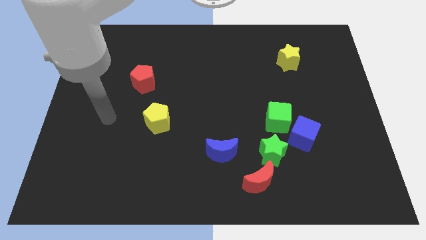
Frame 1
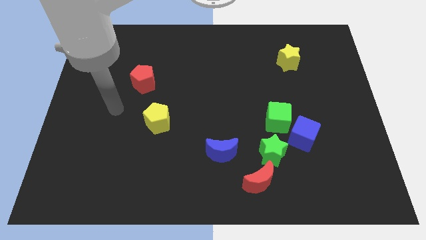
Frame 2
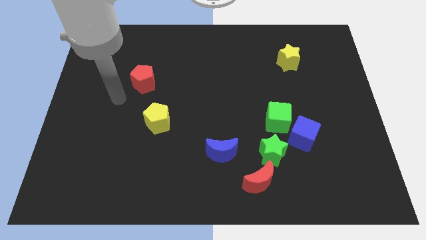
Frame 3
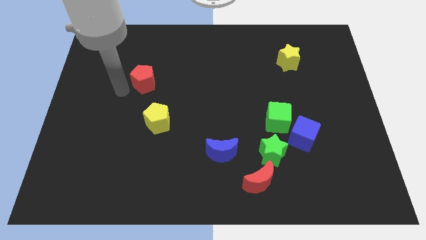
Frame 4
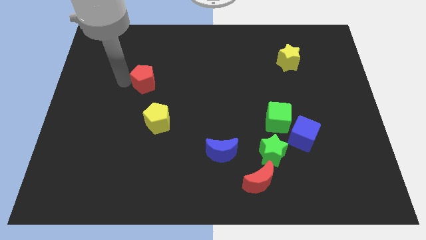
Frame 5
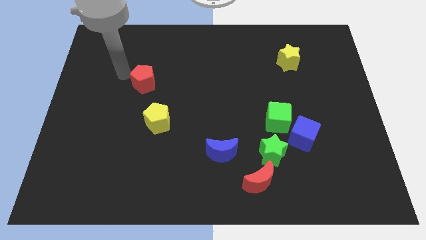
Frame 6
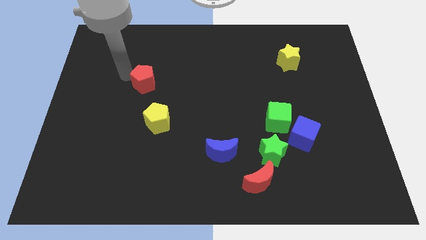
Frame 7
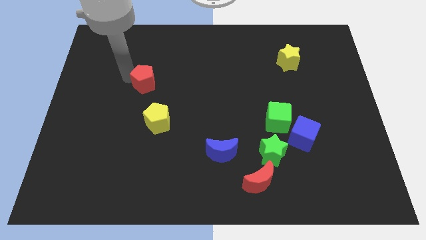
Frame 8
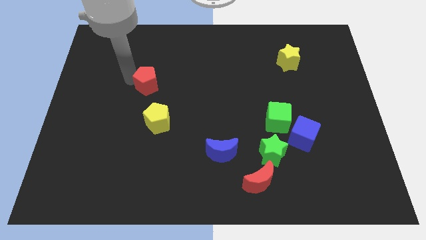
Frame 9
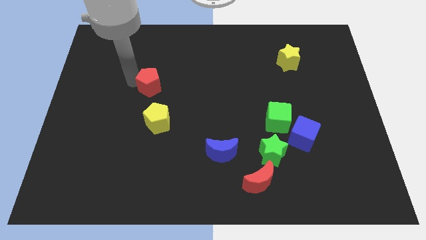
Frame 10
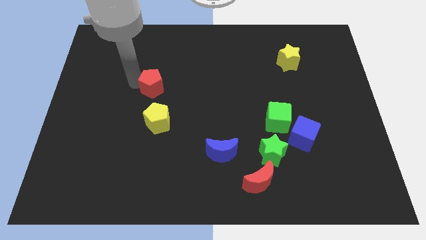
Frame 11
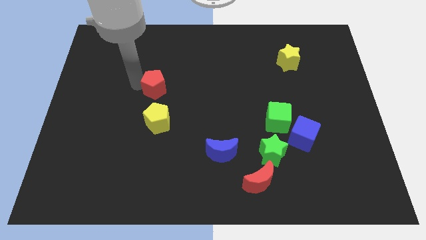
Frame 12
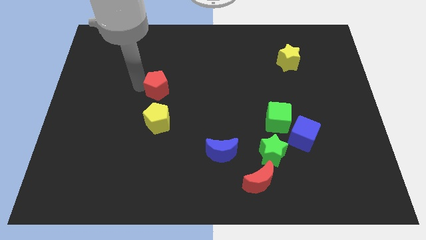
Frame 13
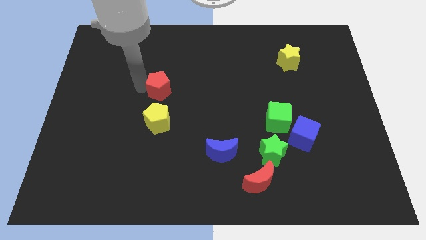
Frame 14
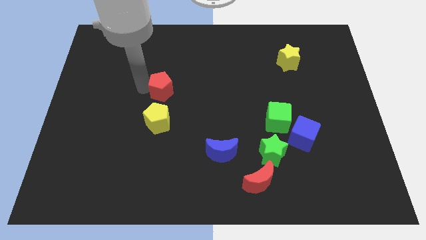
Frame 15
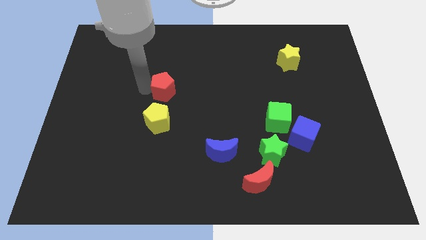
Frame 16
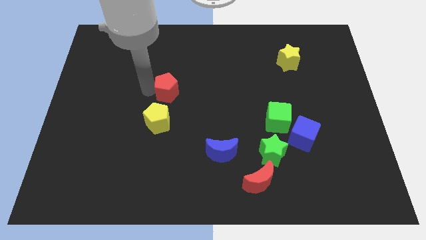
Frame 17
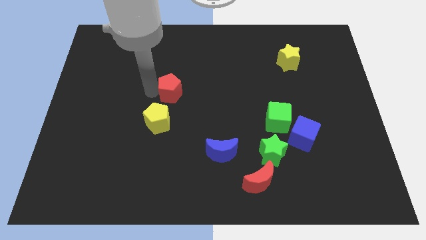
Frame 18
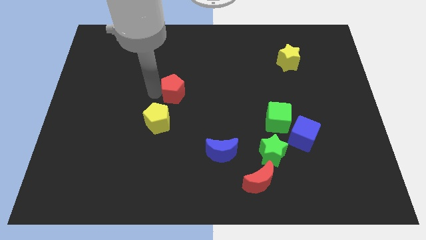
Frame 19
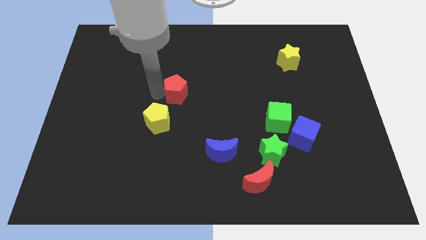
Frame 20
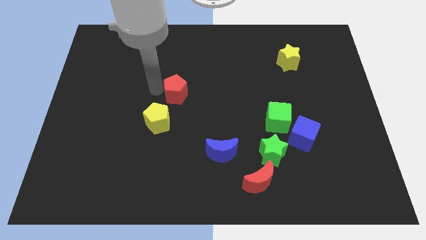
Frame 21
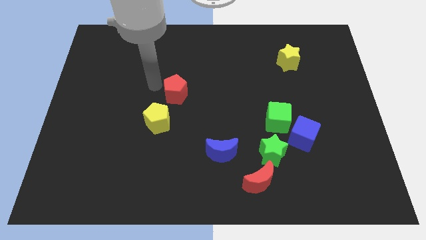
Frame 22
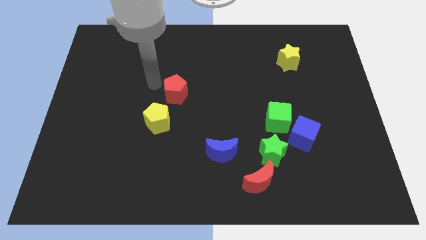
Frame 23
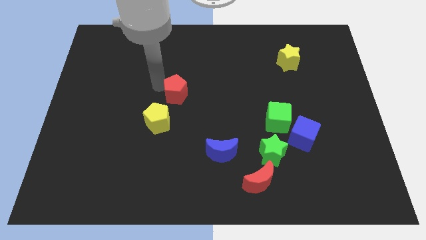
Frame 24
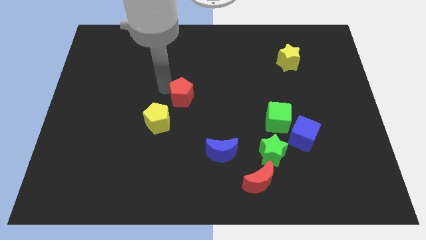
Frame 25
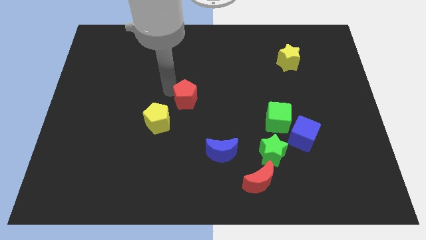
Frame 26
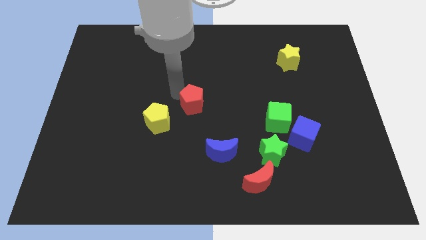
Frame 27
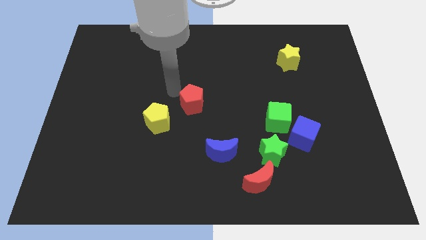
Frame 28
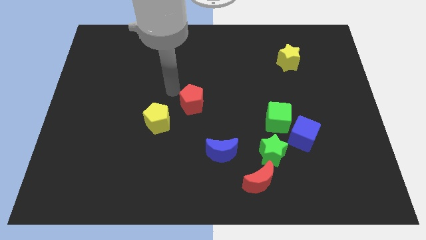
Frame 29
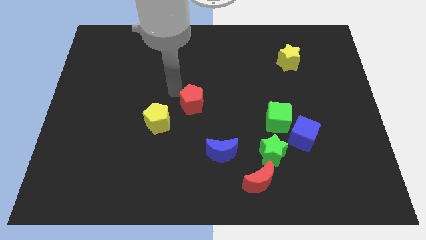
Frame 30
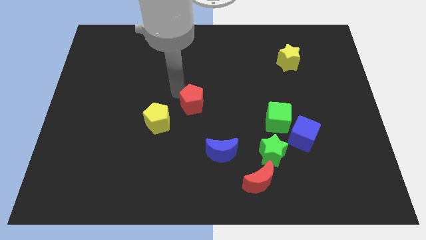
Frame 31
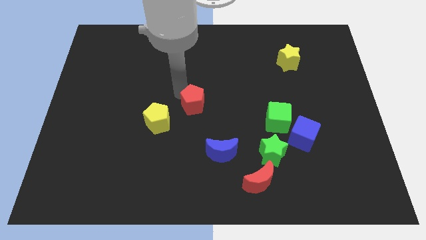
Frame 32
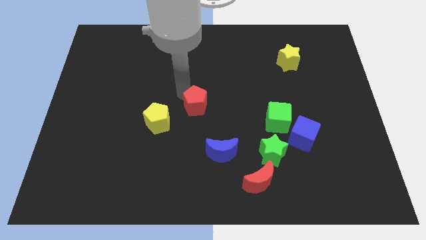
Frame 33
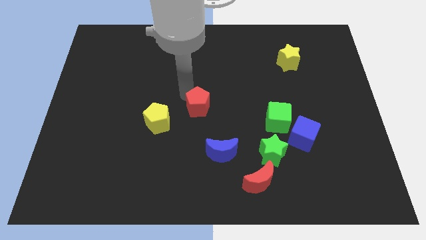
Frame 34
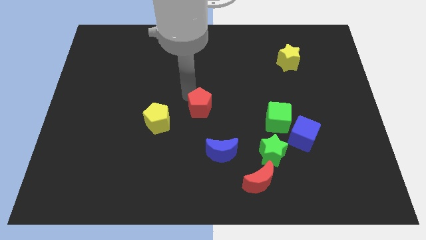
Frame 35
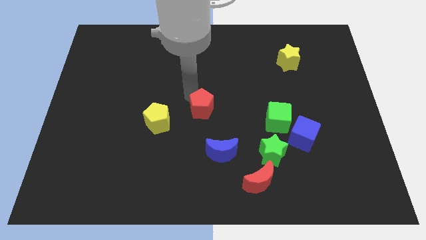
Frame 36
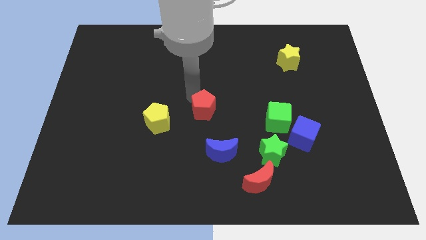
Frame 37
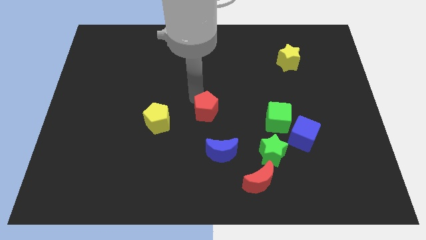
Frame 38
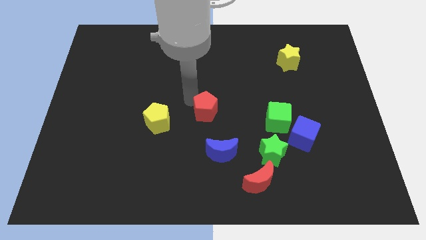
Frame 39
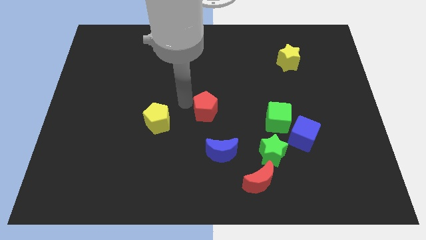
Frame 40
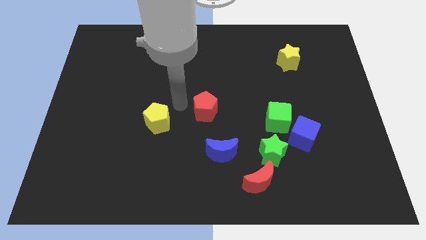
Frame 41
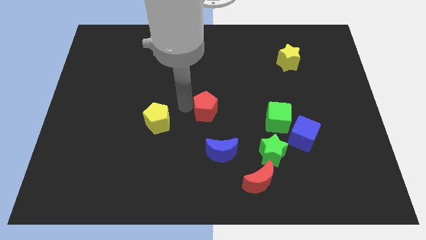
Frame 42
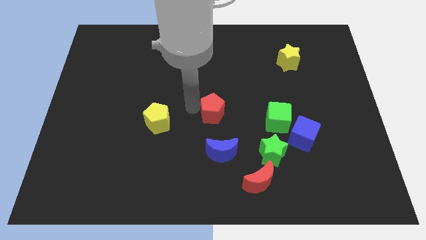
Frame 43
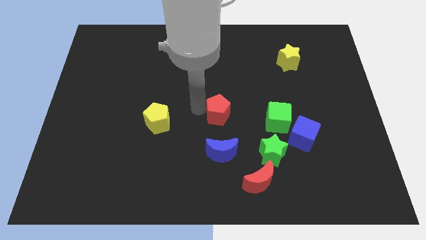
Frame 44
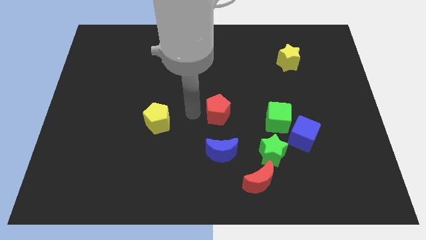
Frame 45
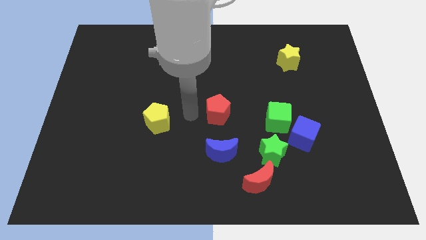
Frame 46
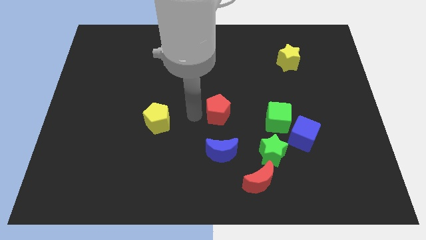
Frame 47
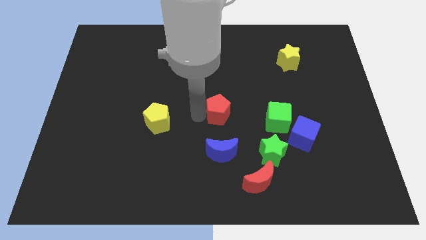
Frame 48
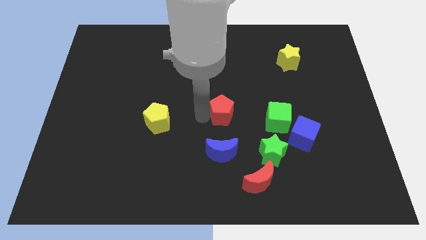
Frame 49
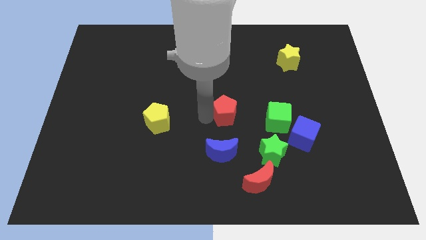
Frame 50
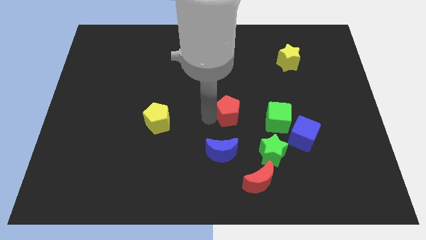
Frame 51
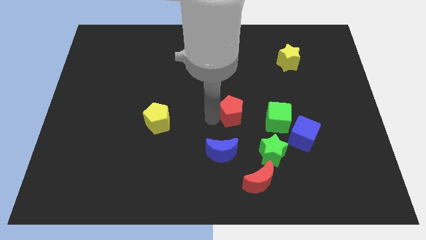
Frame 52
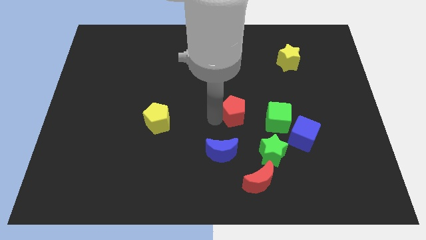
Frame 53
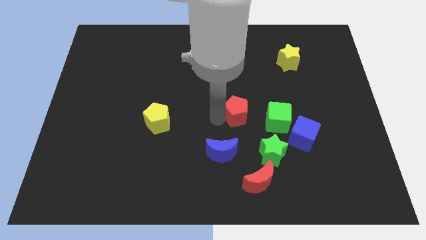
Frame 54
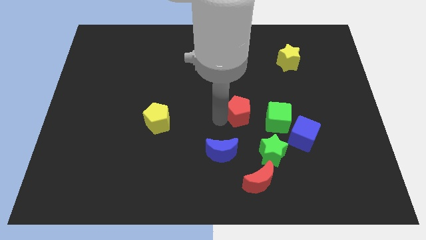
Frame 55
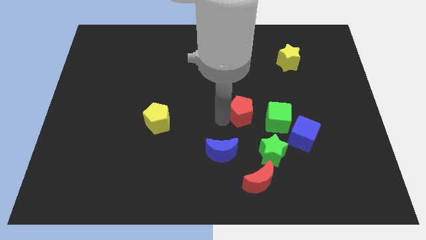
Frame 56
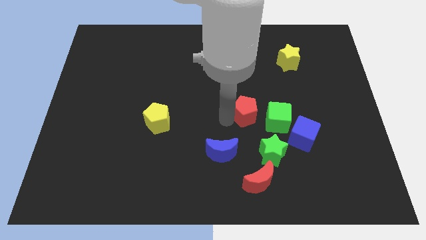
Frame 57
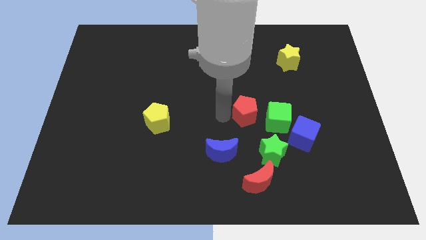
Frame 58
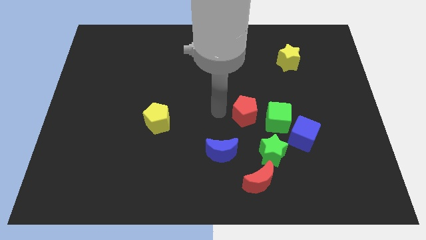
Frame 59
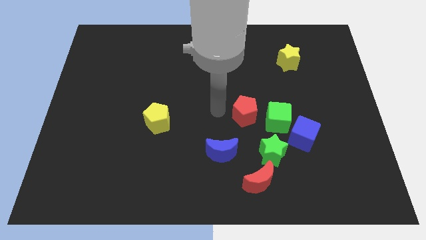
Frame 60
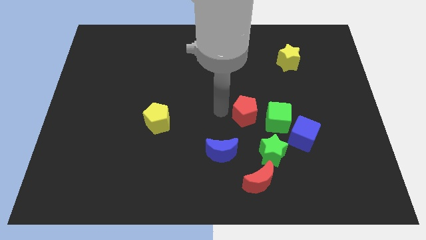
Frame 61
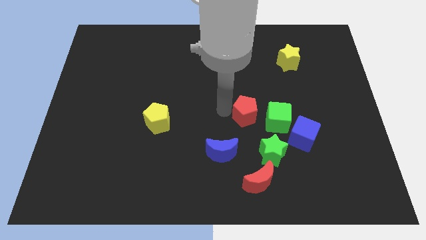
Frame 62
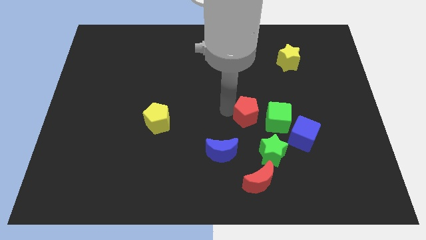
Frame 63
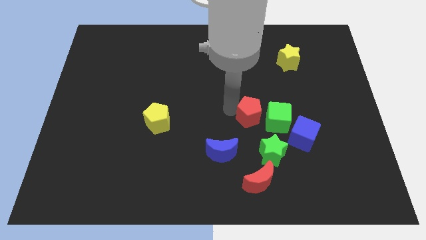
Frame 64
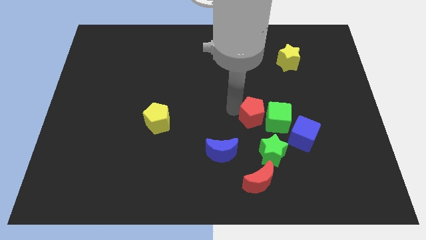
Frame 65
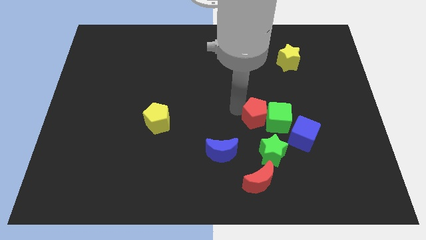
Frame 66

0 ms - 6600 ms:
slide the red pentagon diagonally up and to the left of the blue cube
